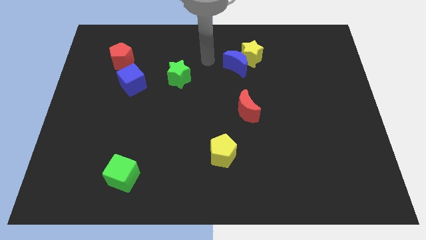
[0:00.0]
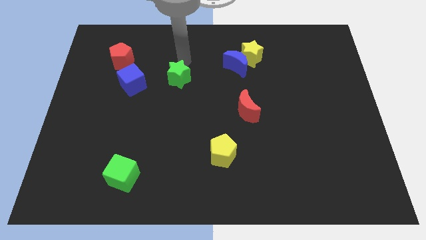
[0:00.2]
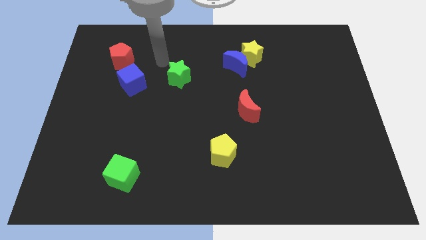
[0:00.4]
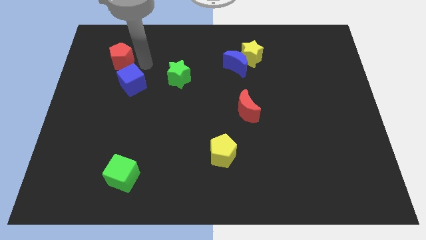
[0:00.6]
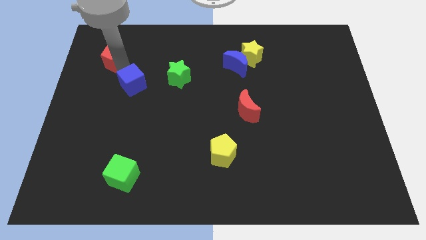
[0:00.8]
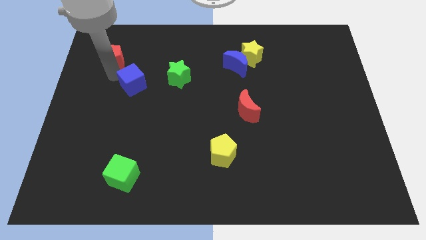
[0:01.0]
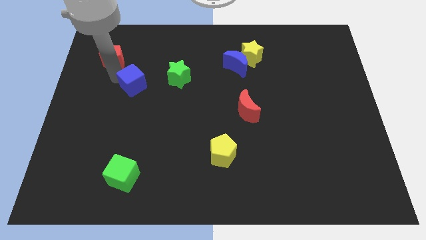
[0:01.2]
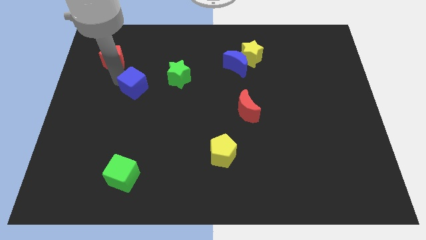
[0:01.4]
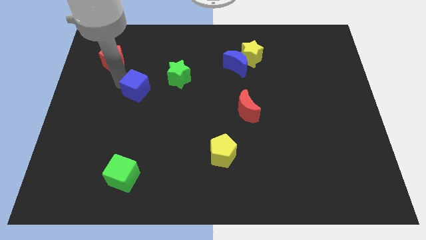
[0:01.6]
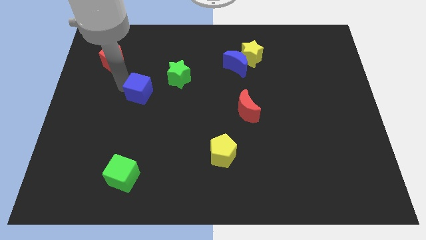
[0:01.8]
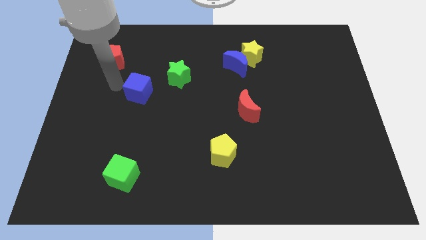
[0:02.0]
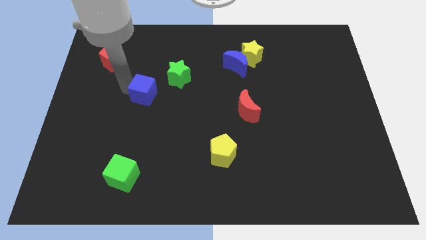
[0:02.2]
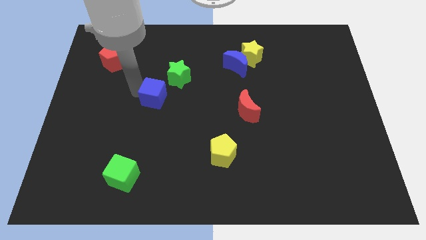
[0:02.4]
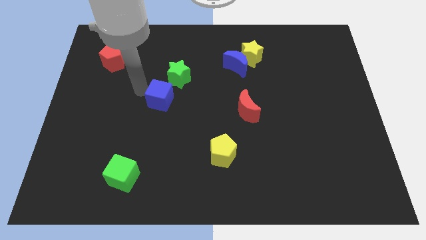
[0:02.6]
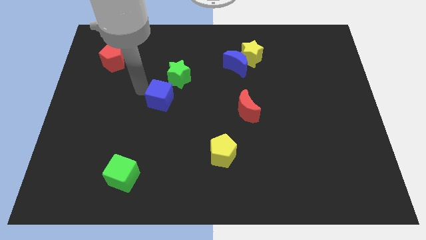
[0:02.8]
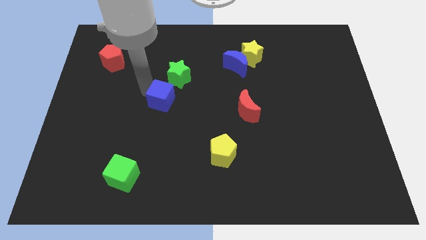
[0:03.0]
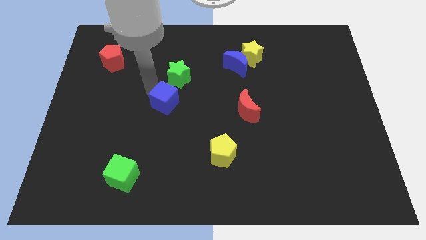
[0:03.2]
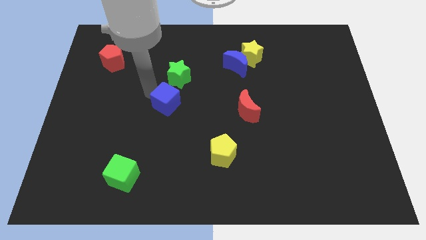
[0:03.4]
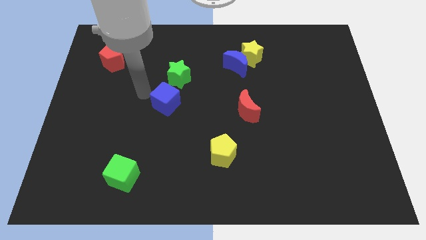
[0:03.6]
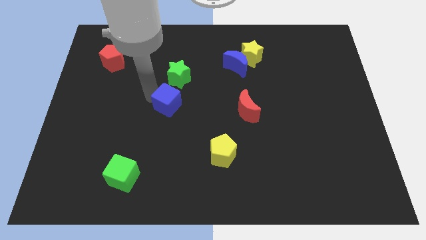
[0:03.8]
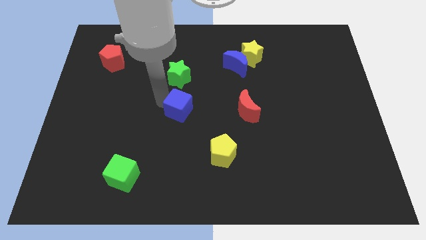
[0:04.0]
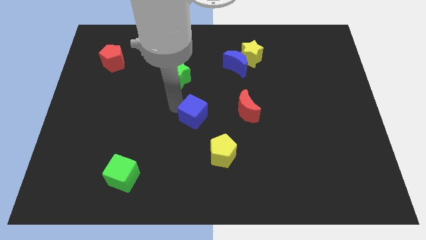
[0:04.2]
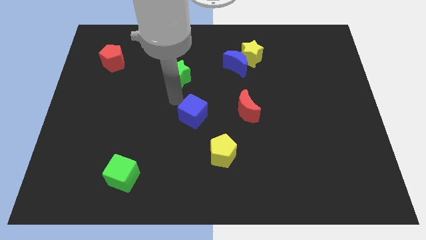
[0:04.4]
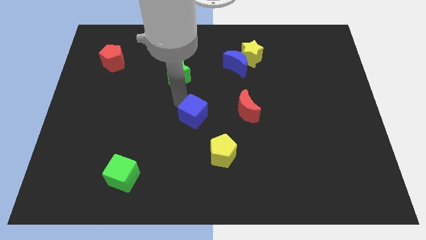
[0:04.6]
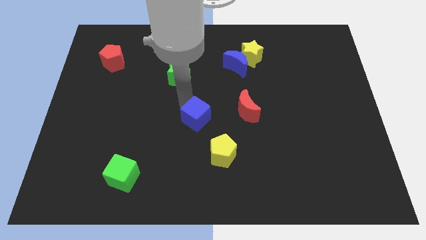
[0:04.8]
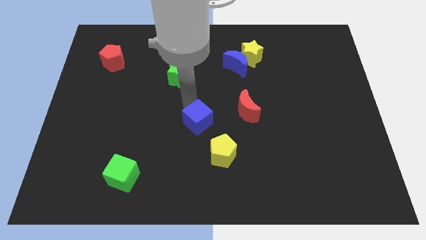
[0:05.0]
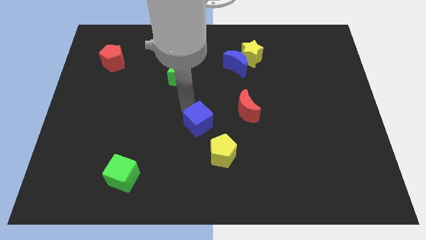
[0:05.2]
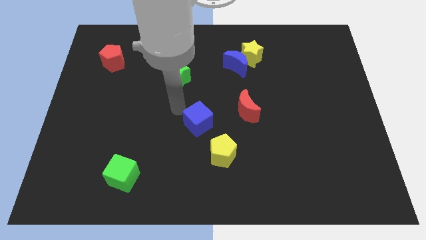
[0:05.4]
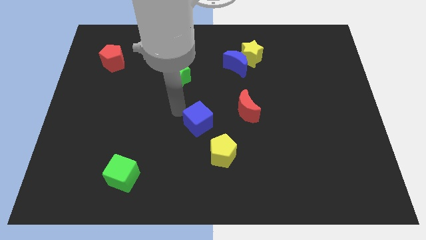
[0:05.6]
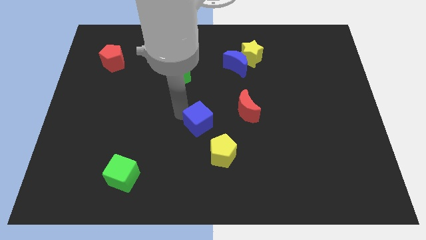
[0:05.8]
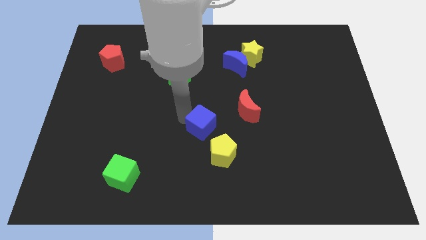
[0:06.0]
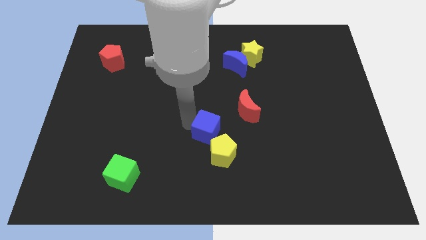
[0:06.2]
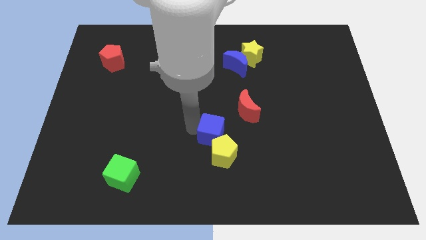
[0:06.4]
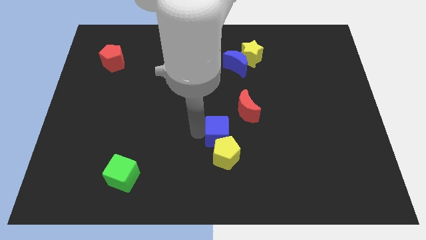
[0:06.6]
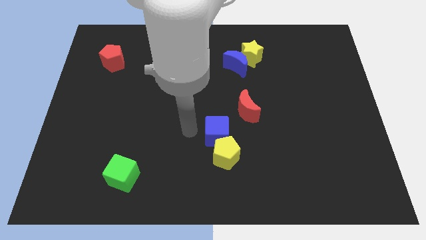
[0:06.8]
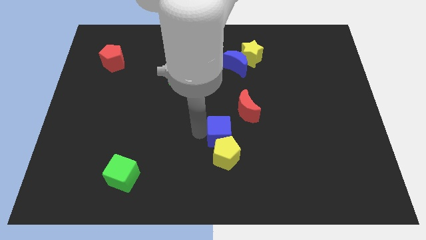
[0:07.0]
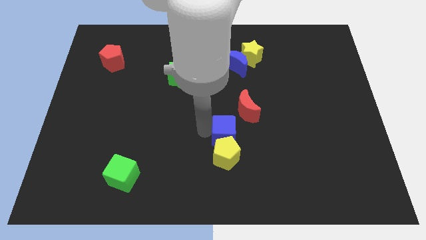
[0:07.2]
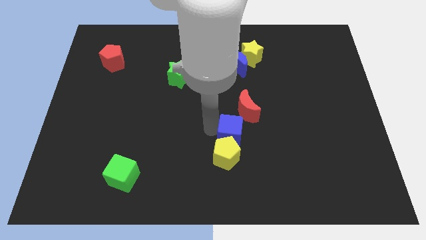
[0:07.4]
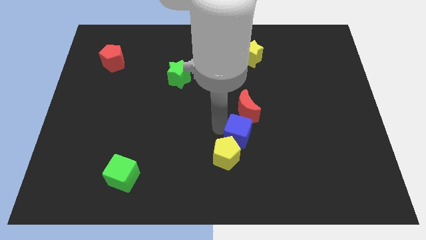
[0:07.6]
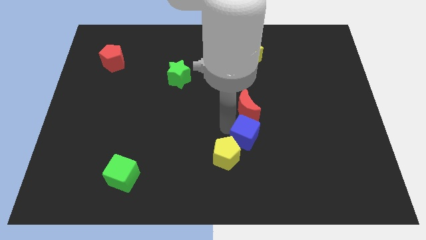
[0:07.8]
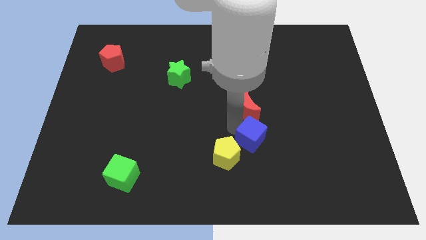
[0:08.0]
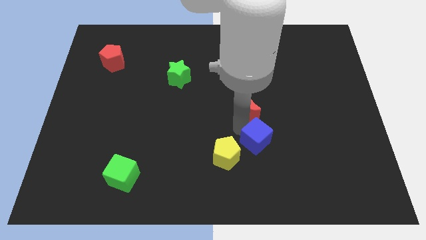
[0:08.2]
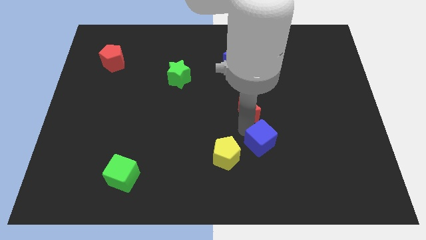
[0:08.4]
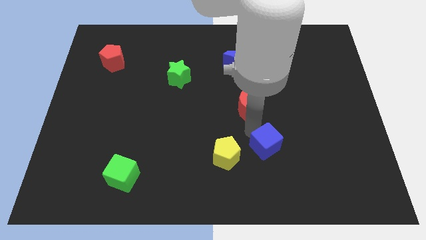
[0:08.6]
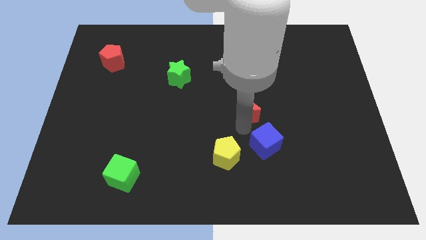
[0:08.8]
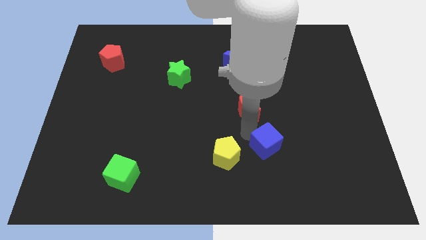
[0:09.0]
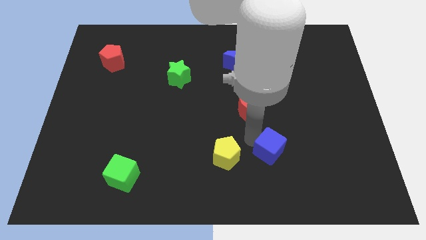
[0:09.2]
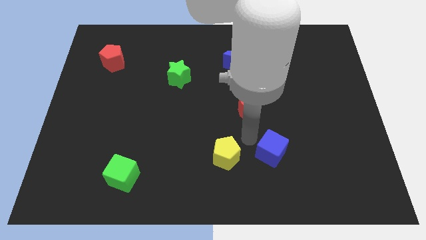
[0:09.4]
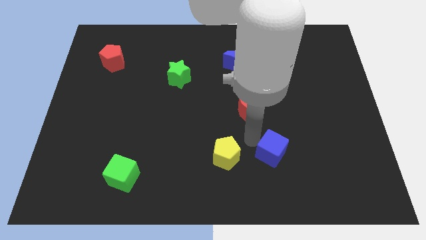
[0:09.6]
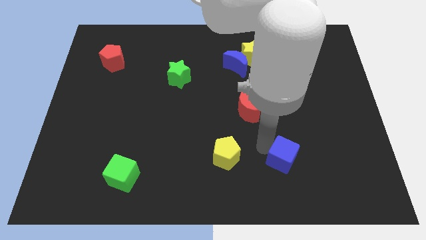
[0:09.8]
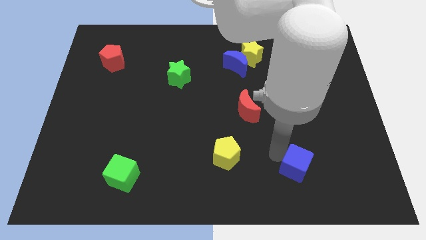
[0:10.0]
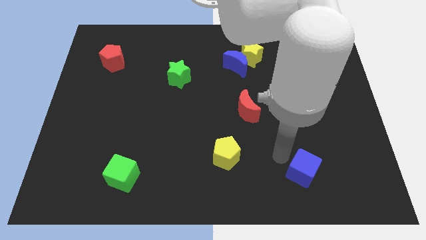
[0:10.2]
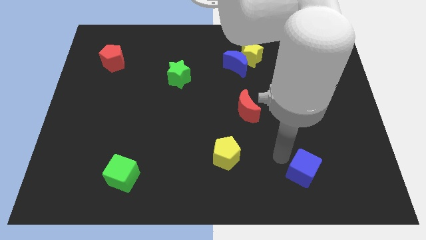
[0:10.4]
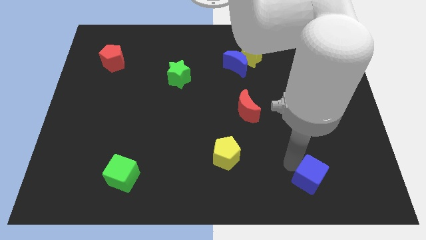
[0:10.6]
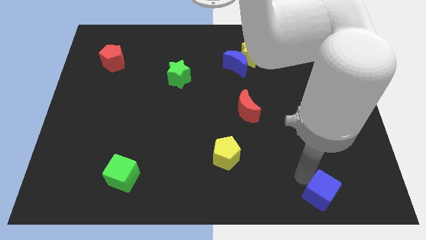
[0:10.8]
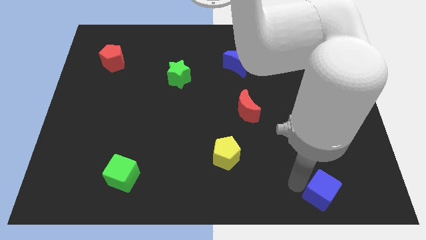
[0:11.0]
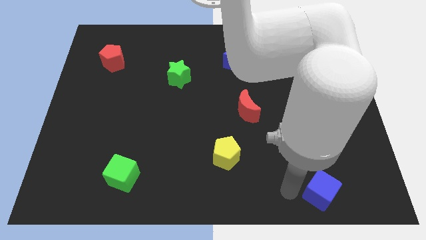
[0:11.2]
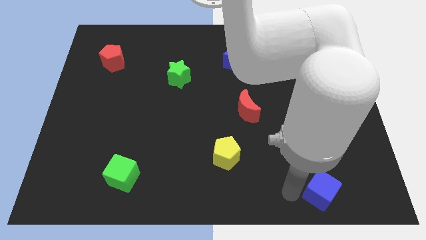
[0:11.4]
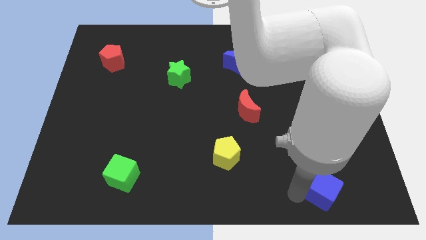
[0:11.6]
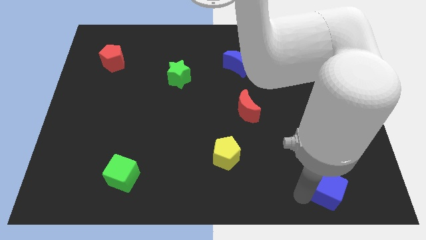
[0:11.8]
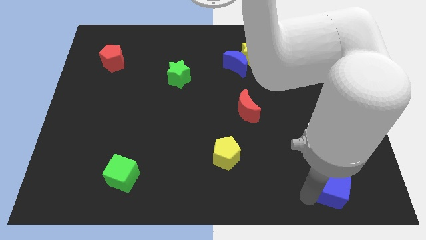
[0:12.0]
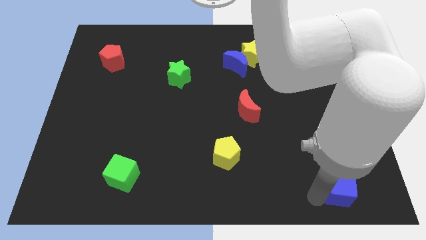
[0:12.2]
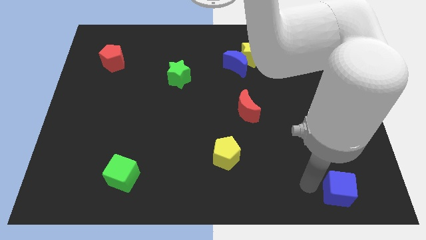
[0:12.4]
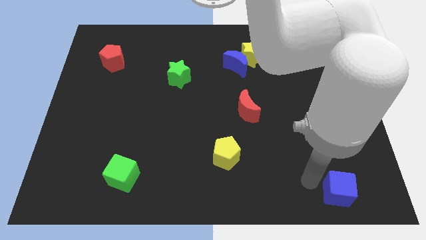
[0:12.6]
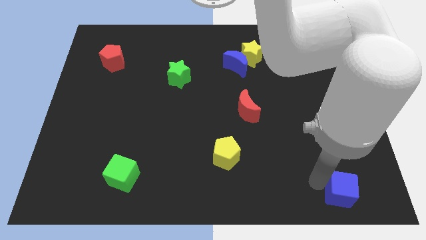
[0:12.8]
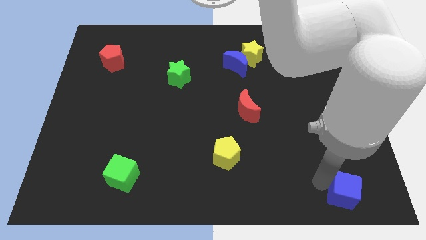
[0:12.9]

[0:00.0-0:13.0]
slide the blue cube to the bottom right corner

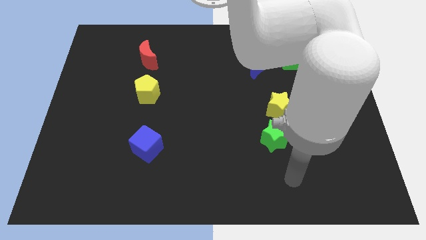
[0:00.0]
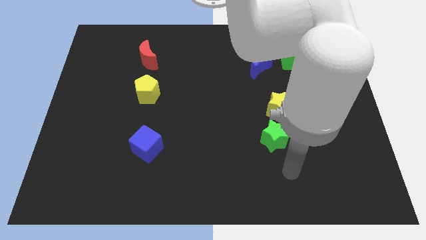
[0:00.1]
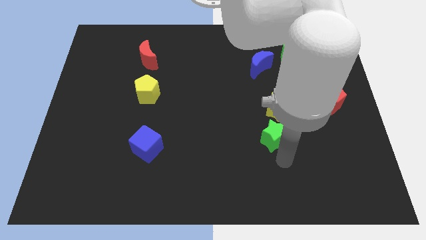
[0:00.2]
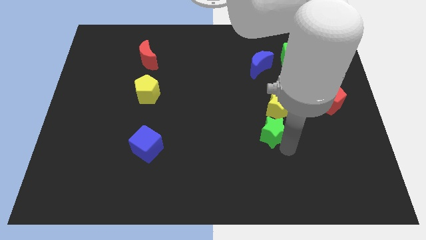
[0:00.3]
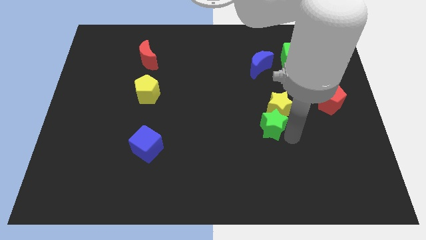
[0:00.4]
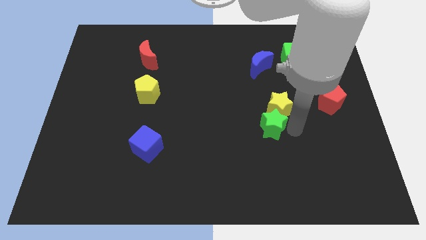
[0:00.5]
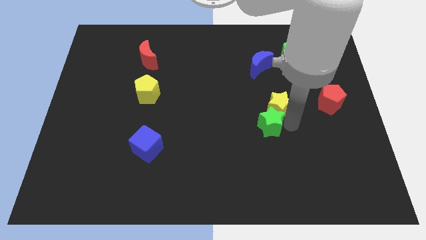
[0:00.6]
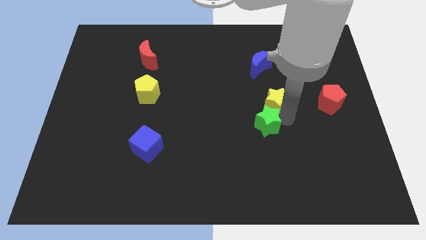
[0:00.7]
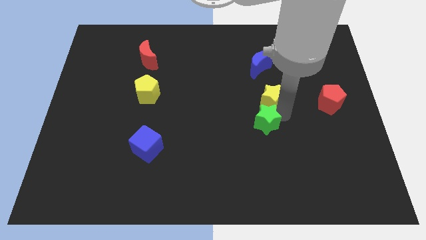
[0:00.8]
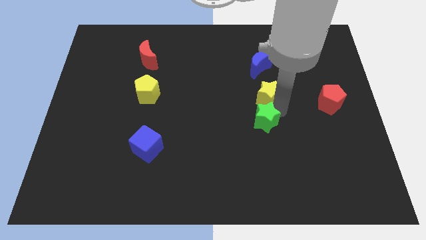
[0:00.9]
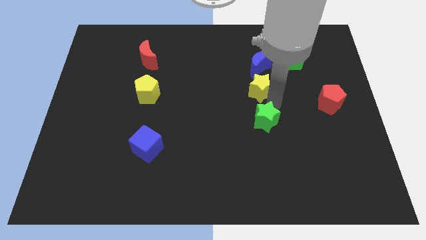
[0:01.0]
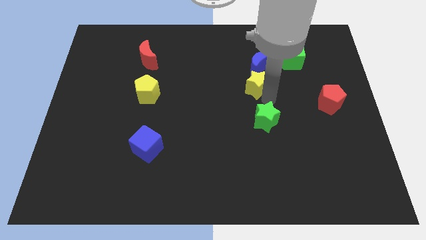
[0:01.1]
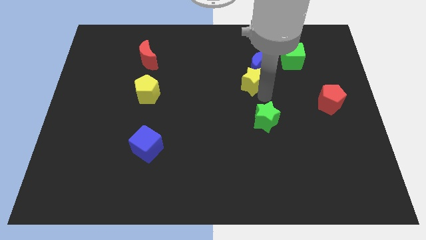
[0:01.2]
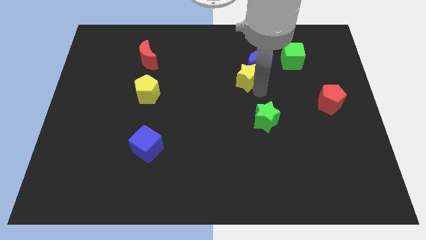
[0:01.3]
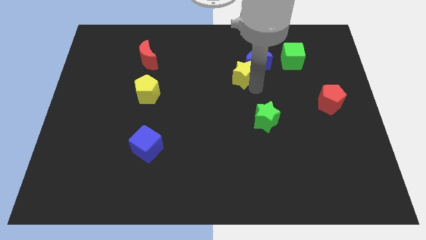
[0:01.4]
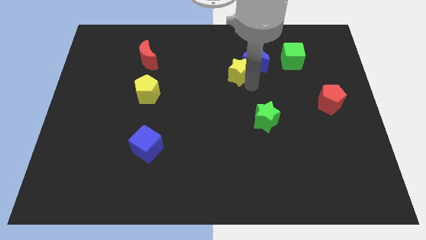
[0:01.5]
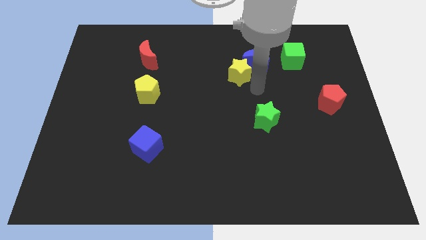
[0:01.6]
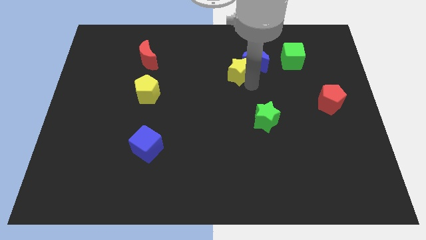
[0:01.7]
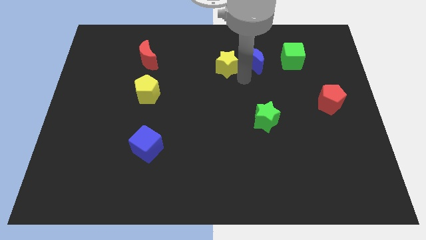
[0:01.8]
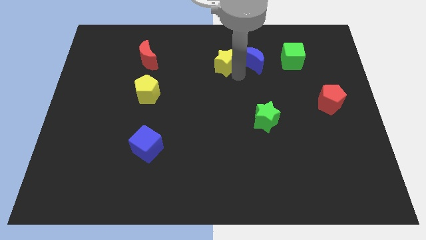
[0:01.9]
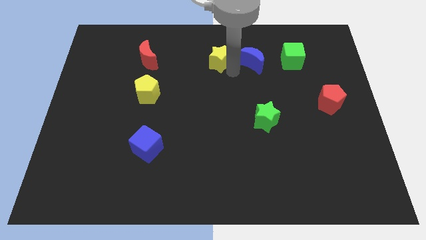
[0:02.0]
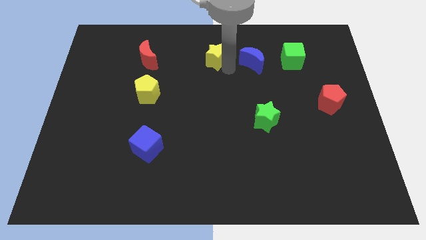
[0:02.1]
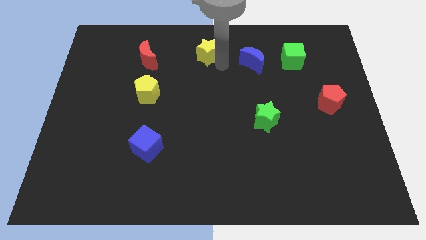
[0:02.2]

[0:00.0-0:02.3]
move the yellow star to the top
